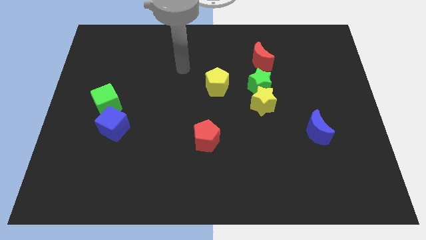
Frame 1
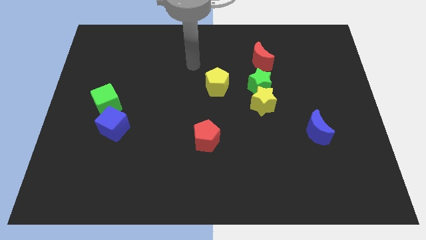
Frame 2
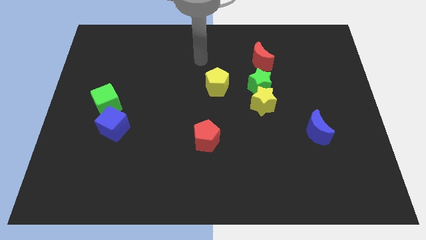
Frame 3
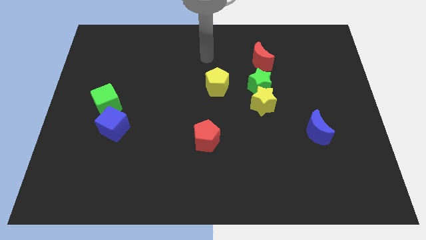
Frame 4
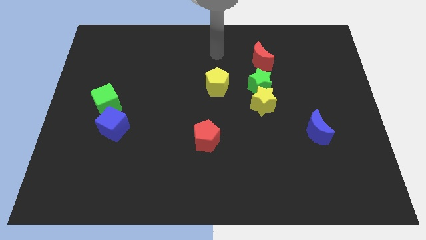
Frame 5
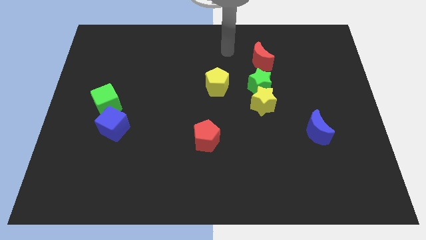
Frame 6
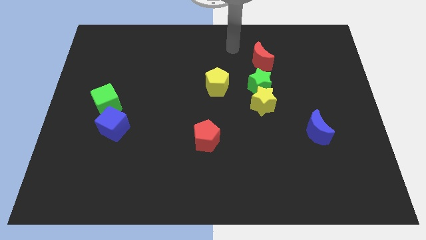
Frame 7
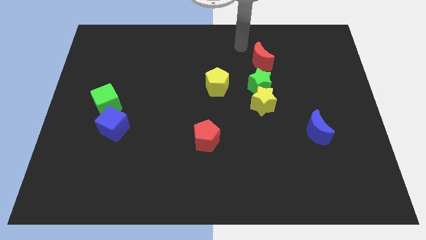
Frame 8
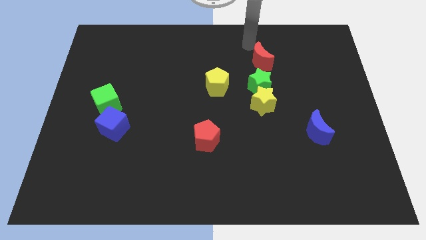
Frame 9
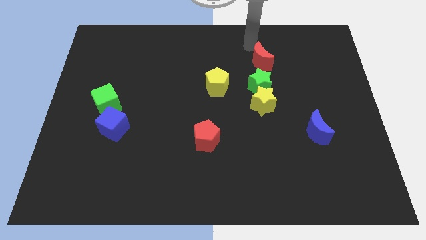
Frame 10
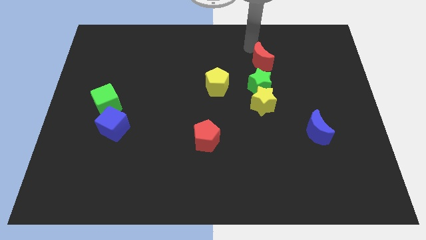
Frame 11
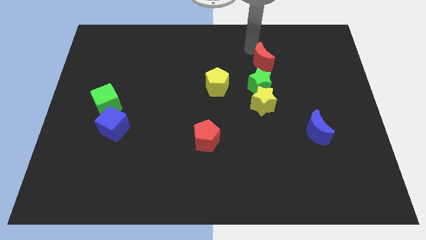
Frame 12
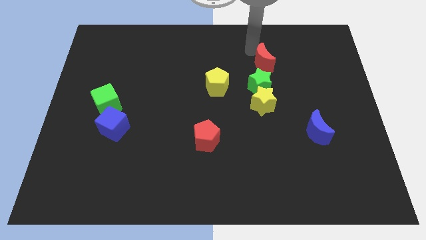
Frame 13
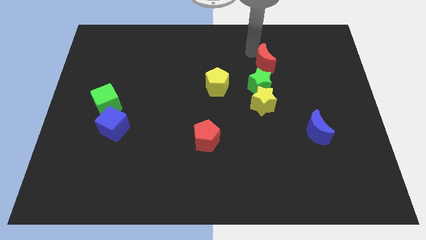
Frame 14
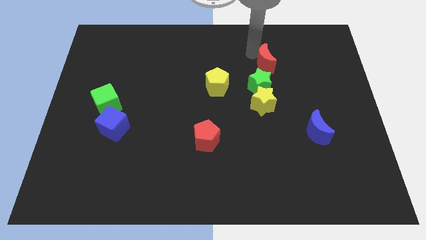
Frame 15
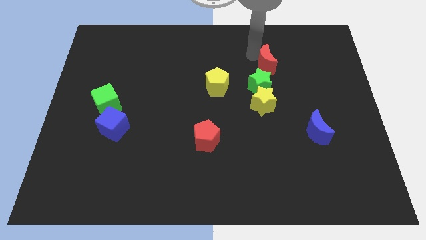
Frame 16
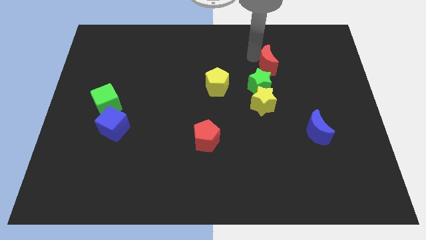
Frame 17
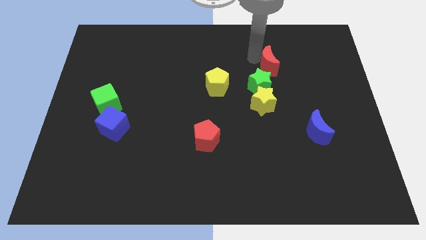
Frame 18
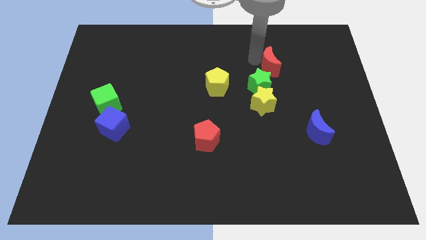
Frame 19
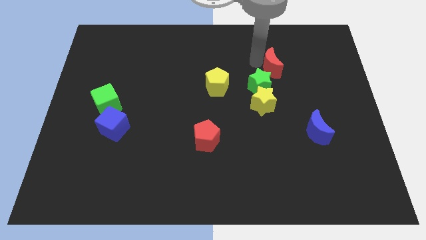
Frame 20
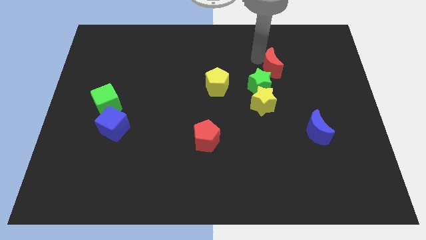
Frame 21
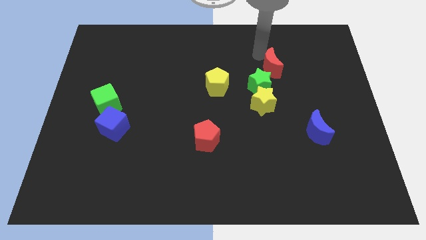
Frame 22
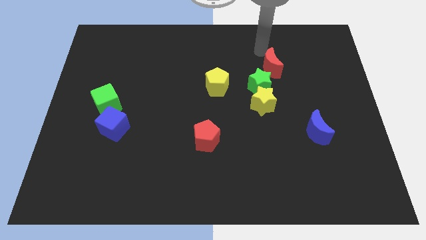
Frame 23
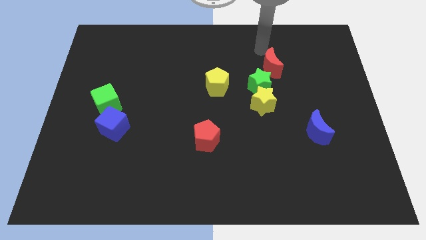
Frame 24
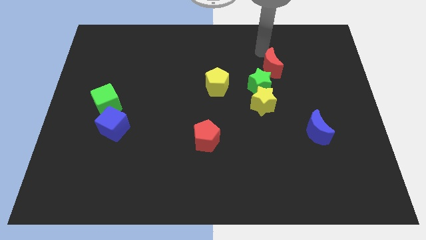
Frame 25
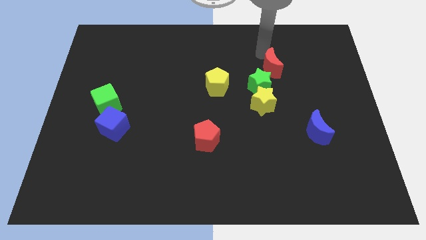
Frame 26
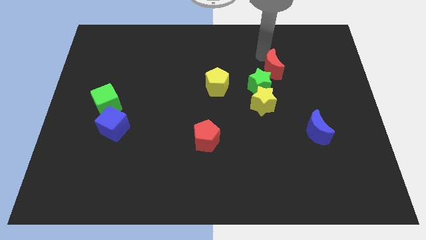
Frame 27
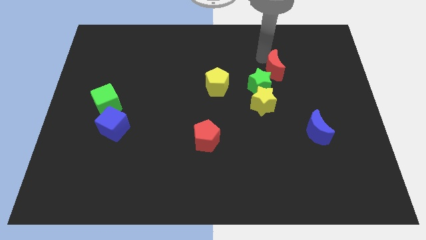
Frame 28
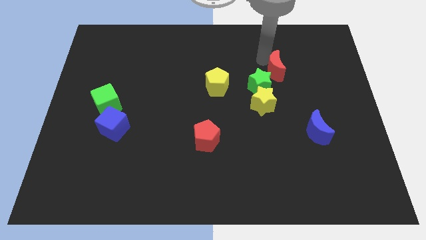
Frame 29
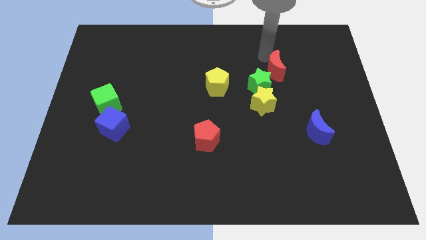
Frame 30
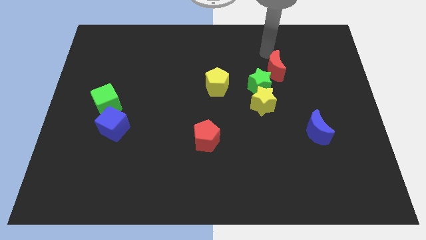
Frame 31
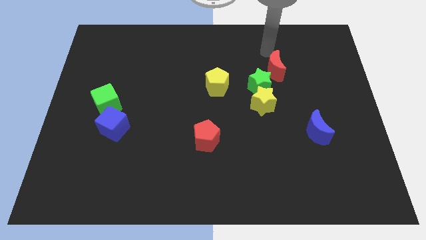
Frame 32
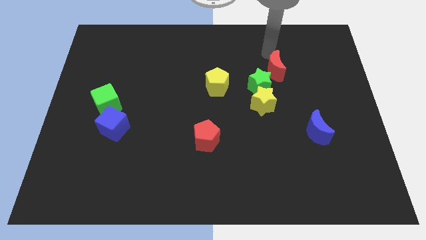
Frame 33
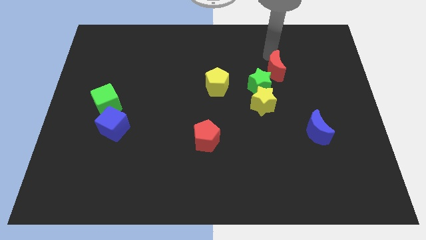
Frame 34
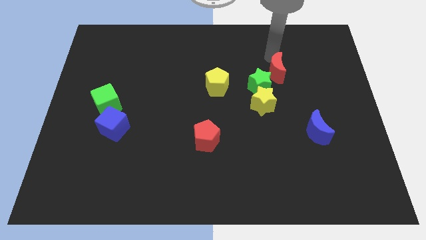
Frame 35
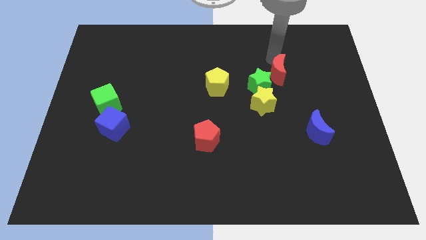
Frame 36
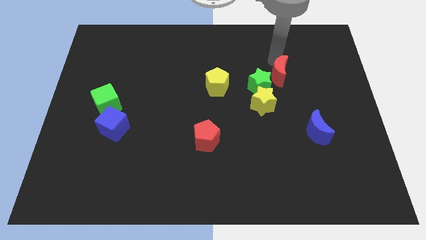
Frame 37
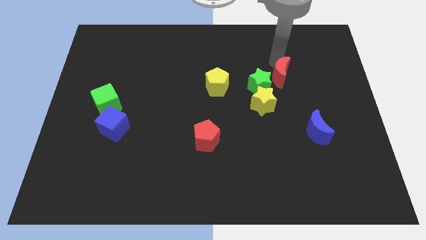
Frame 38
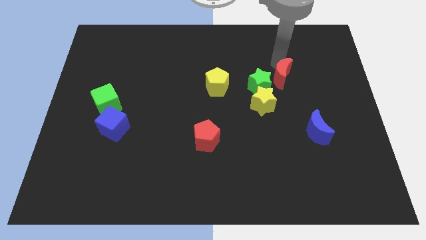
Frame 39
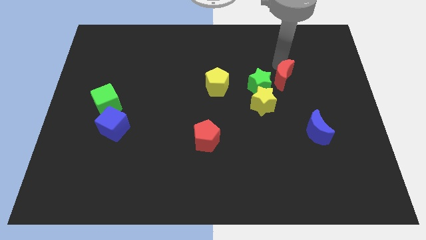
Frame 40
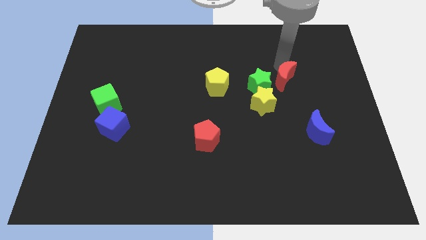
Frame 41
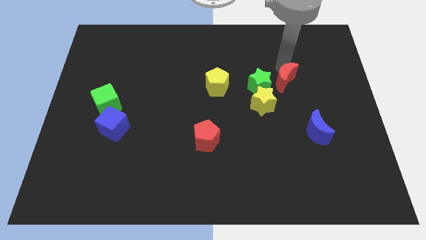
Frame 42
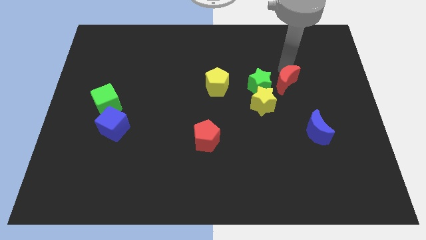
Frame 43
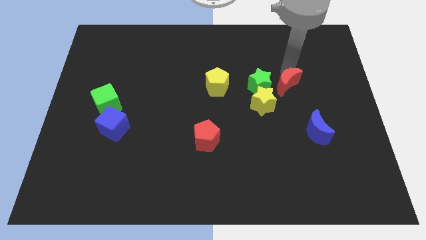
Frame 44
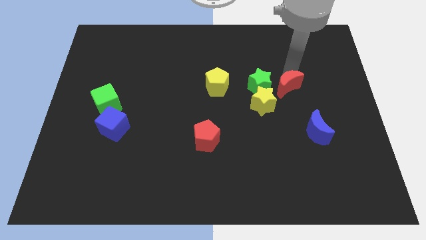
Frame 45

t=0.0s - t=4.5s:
slide the red moon a little down

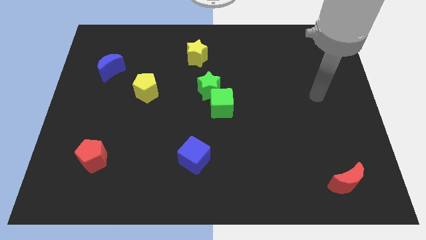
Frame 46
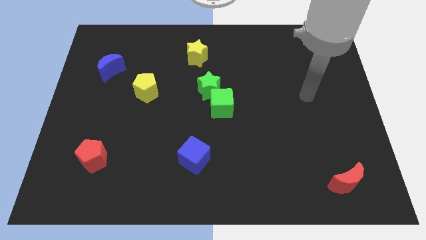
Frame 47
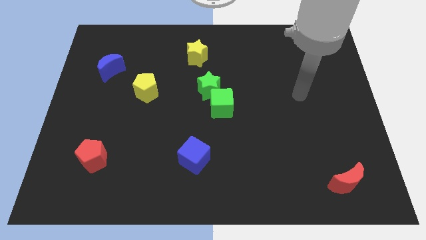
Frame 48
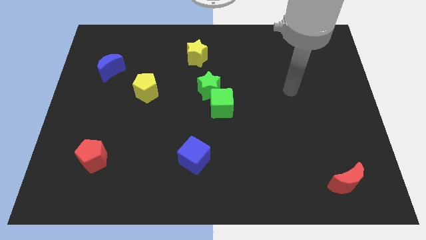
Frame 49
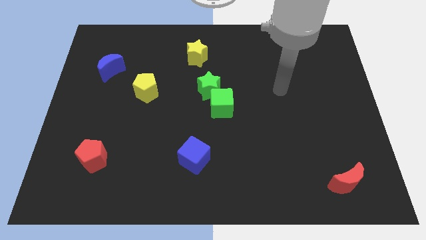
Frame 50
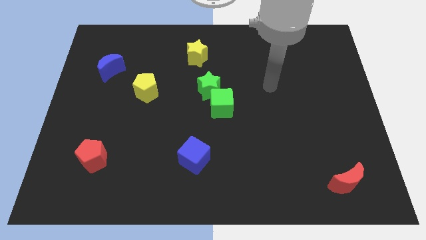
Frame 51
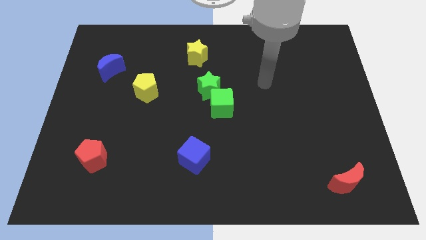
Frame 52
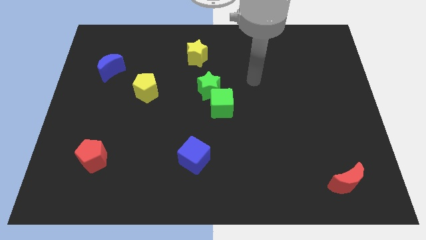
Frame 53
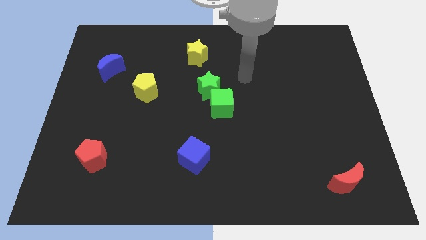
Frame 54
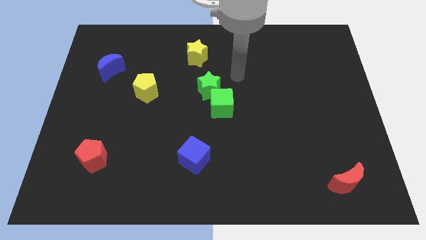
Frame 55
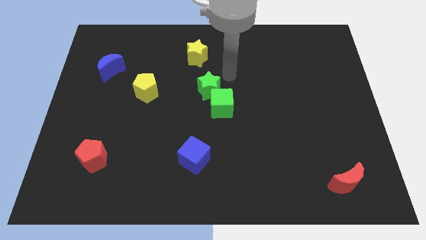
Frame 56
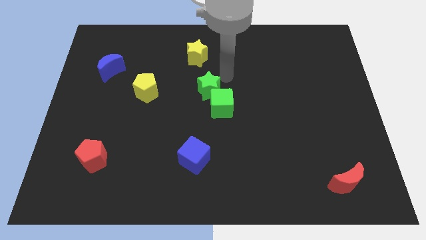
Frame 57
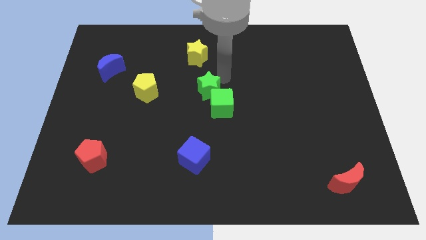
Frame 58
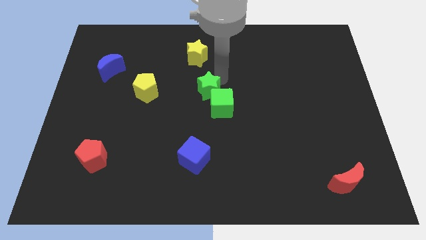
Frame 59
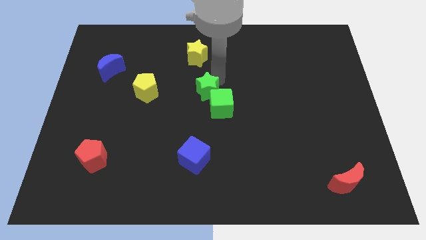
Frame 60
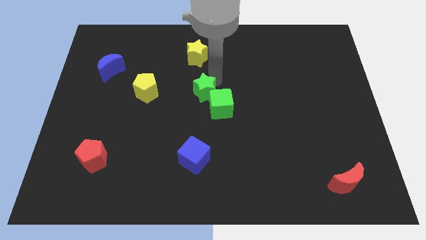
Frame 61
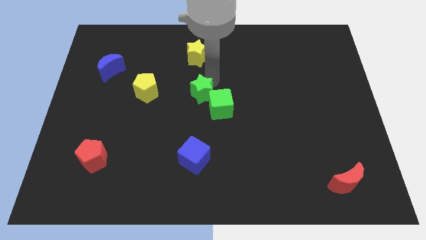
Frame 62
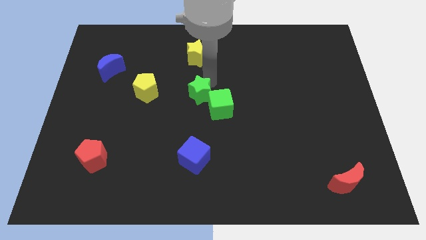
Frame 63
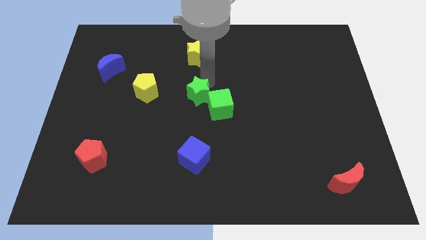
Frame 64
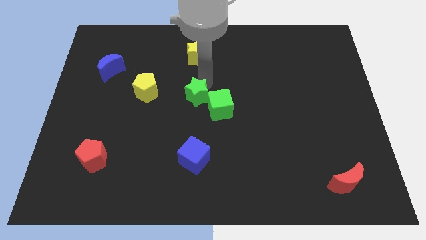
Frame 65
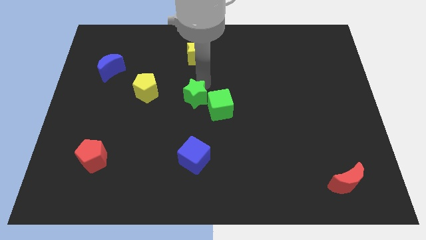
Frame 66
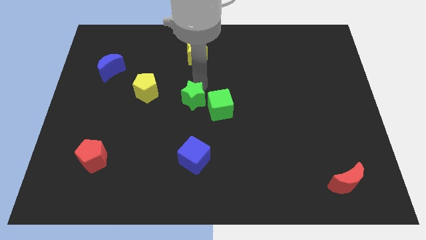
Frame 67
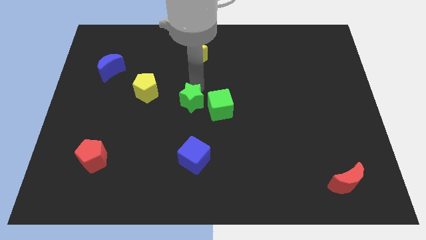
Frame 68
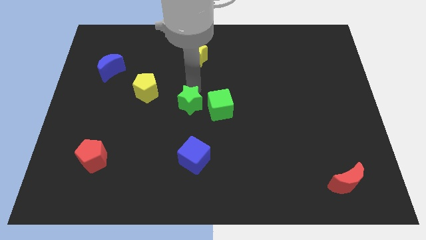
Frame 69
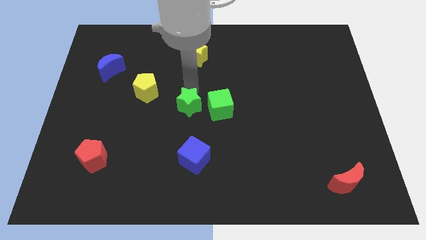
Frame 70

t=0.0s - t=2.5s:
slightly slide the green star diagonally downwards and left

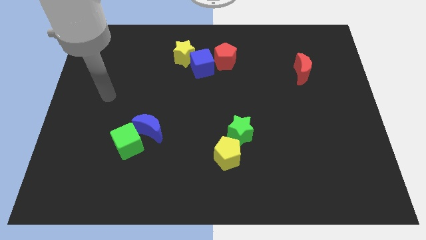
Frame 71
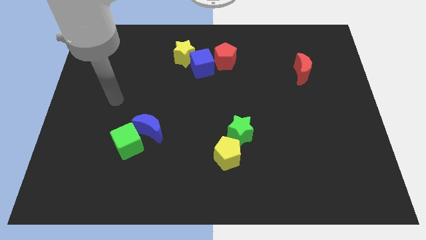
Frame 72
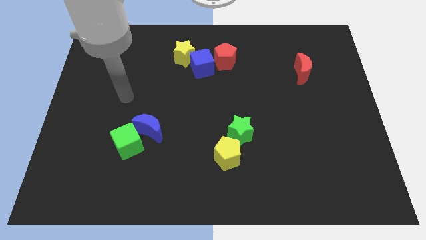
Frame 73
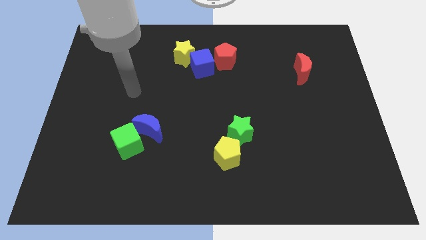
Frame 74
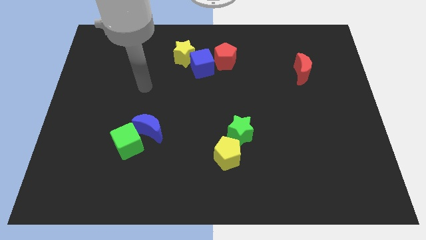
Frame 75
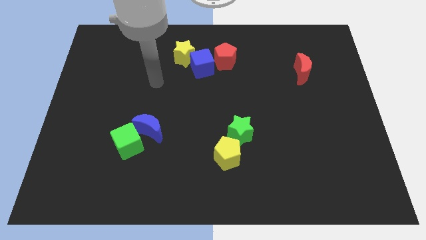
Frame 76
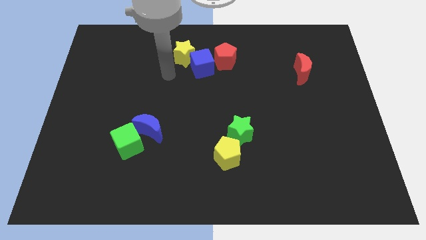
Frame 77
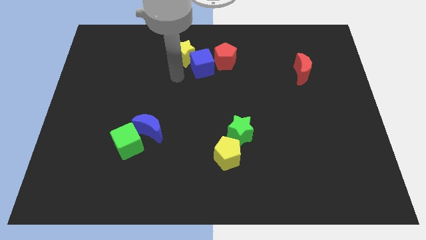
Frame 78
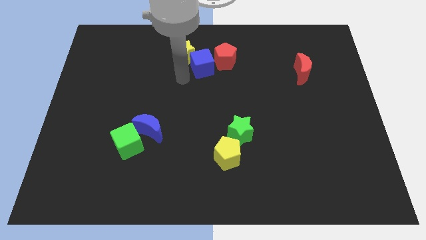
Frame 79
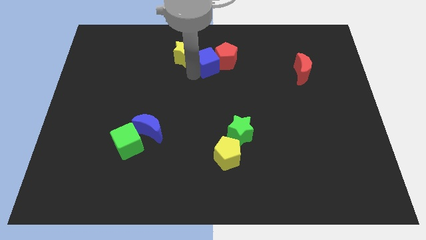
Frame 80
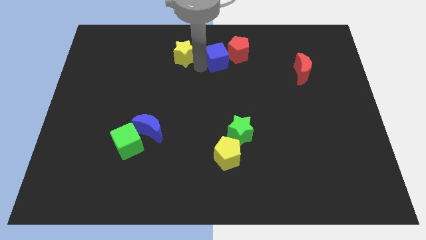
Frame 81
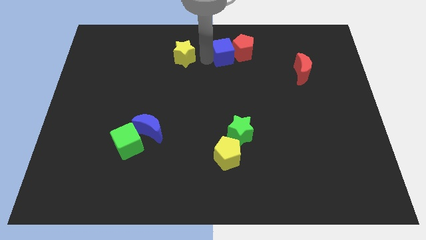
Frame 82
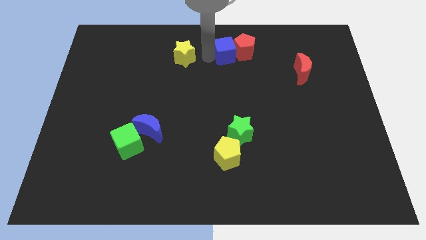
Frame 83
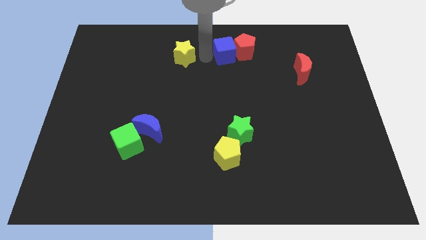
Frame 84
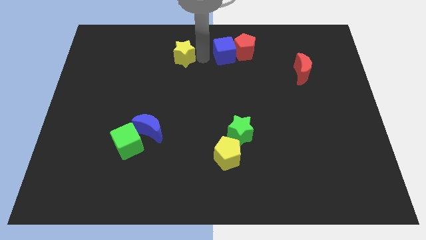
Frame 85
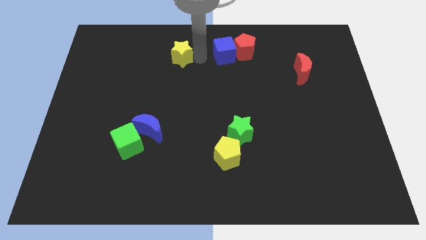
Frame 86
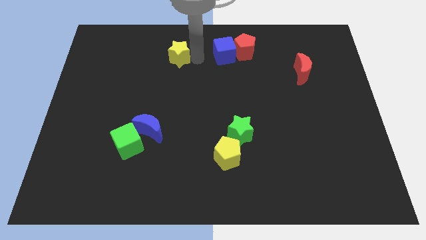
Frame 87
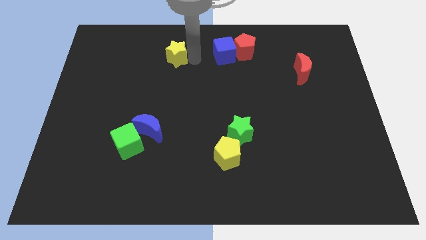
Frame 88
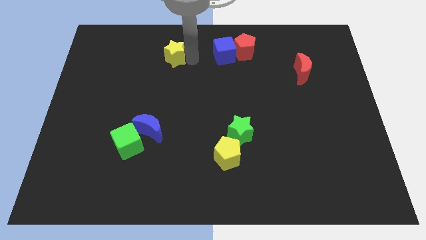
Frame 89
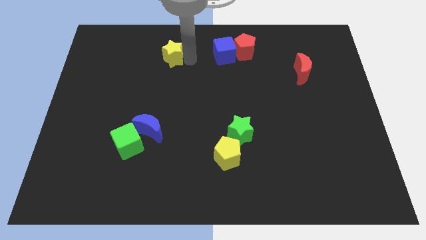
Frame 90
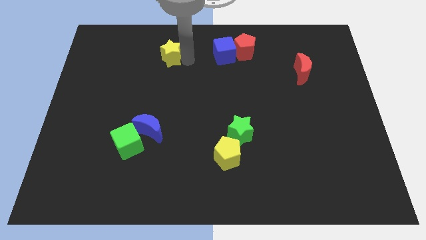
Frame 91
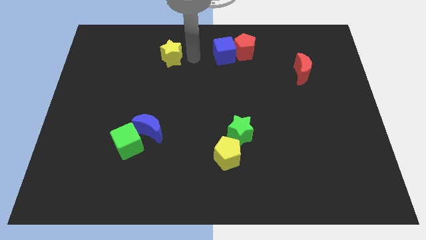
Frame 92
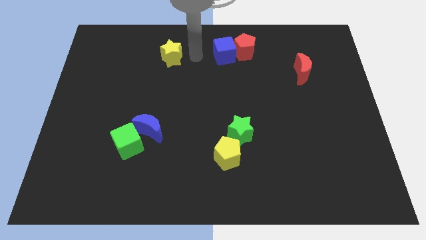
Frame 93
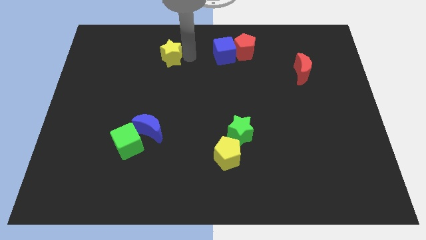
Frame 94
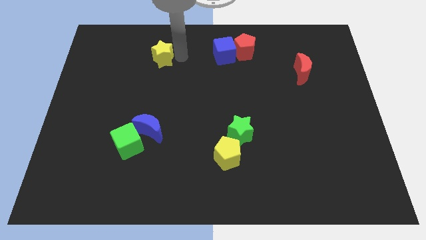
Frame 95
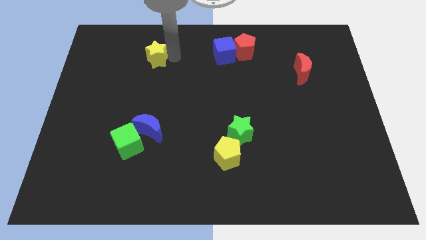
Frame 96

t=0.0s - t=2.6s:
push the yellow star a little to the left
